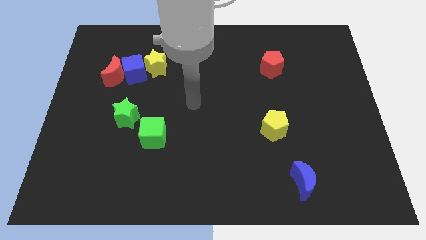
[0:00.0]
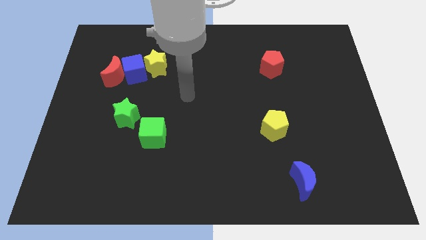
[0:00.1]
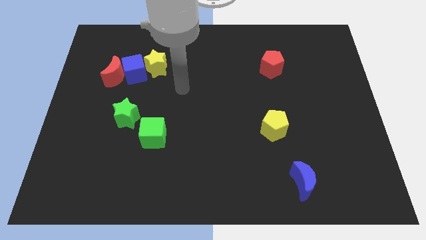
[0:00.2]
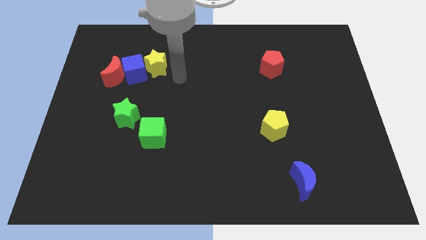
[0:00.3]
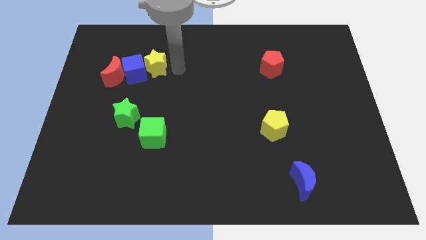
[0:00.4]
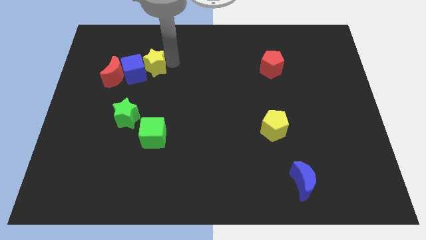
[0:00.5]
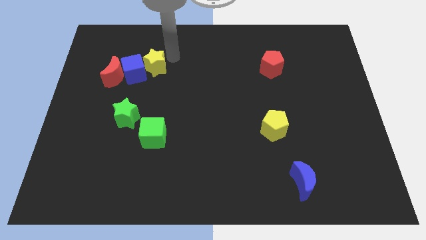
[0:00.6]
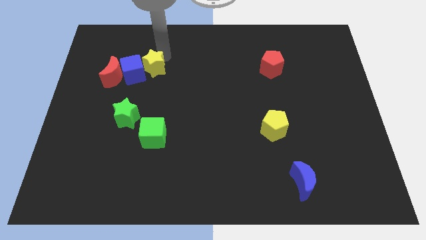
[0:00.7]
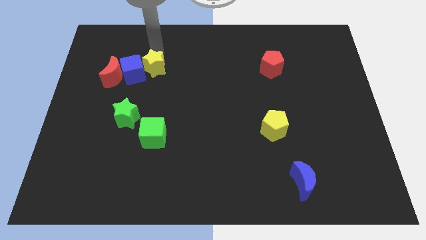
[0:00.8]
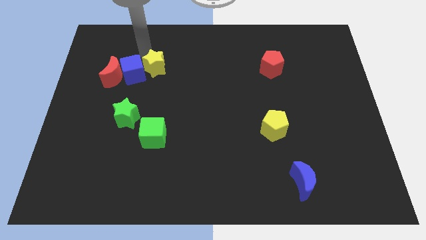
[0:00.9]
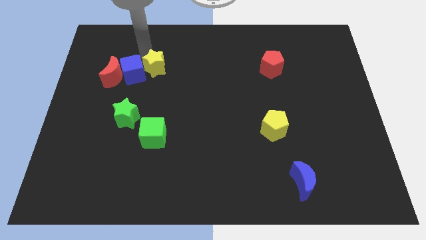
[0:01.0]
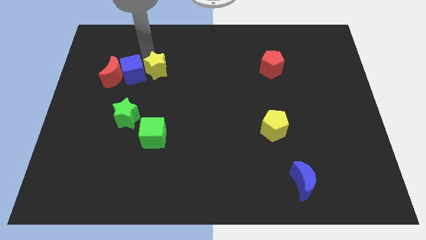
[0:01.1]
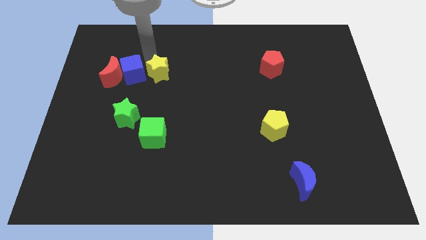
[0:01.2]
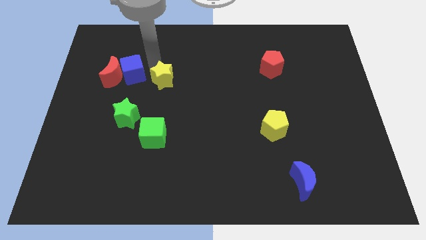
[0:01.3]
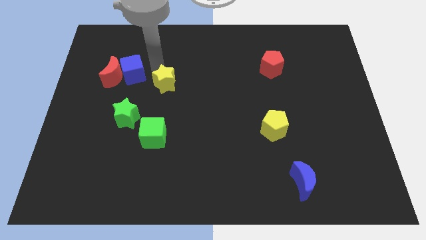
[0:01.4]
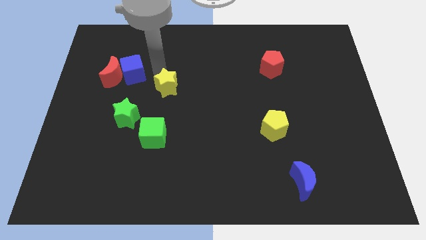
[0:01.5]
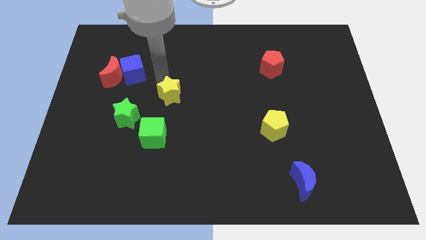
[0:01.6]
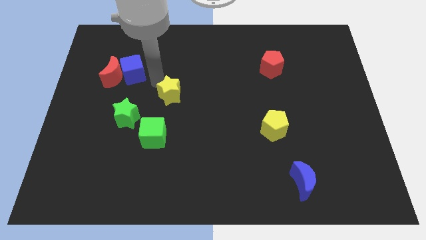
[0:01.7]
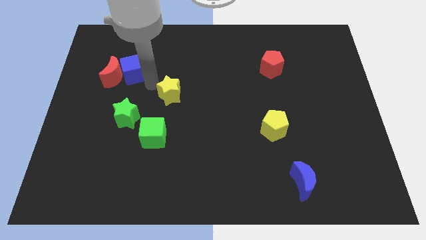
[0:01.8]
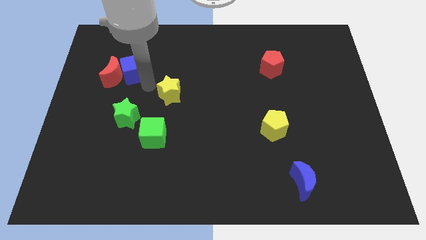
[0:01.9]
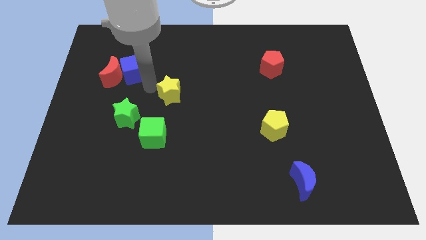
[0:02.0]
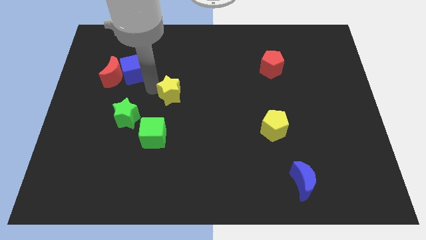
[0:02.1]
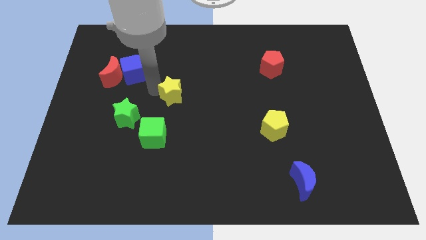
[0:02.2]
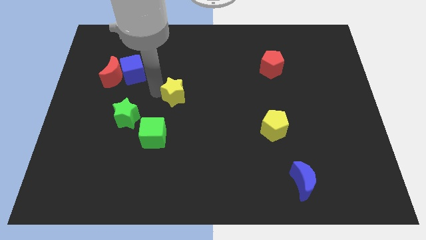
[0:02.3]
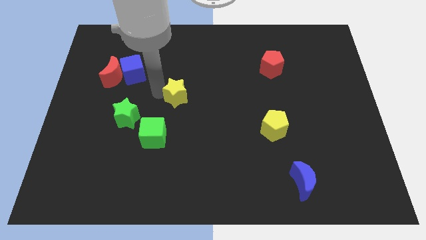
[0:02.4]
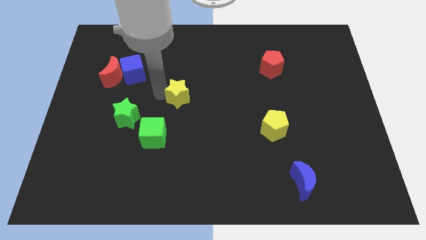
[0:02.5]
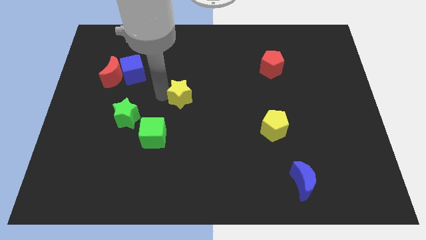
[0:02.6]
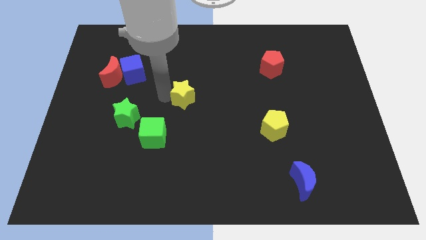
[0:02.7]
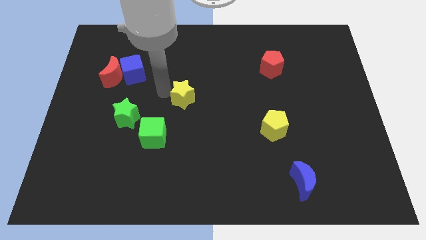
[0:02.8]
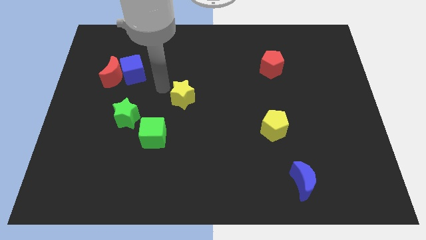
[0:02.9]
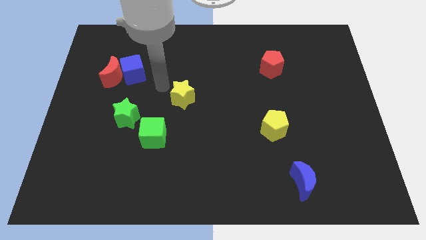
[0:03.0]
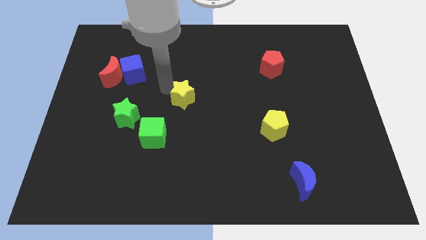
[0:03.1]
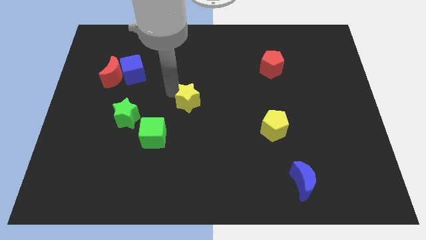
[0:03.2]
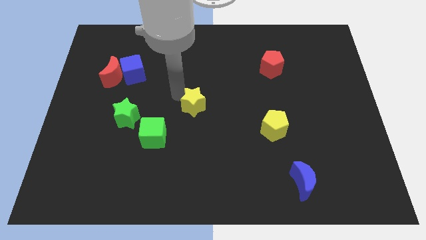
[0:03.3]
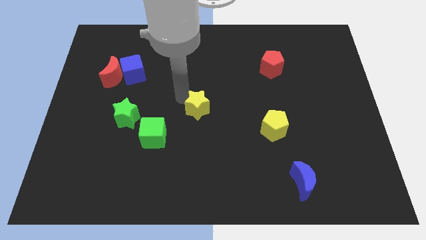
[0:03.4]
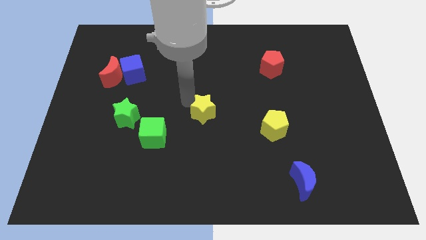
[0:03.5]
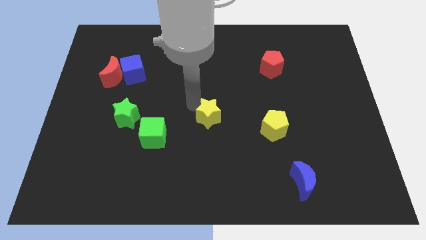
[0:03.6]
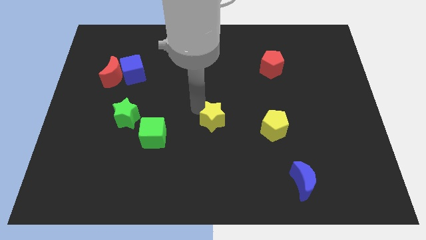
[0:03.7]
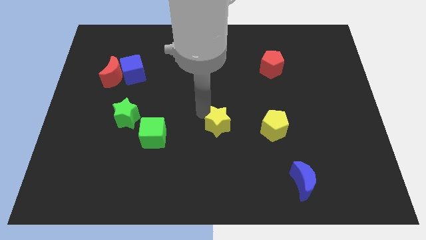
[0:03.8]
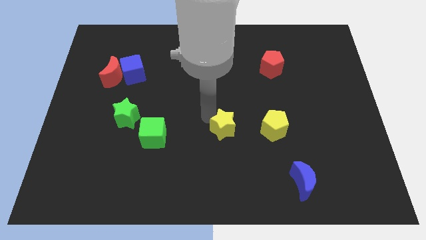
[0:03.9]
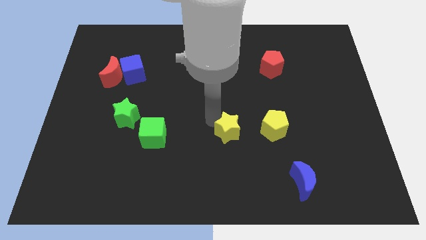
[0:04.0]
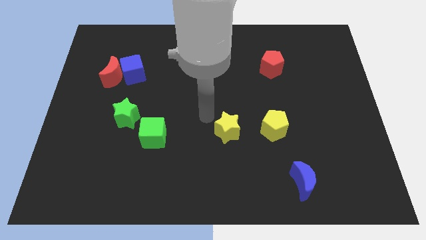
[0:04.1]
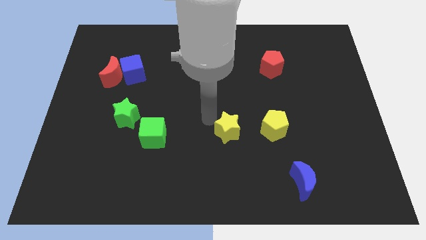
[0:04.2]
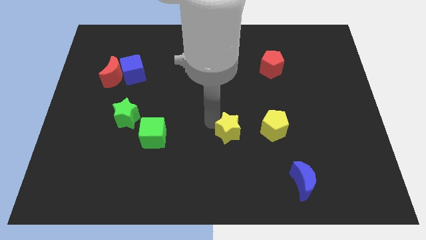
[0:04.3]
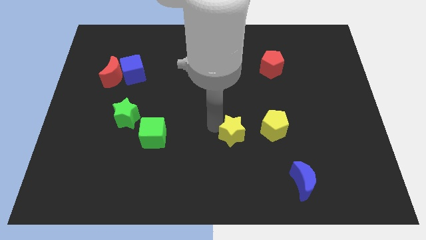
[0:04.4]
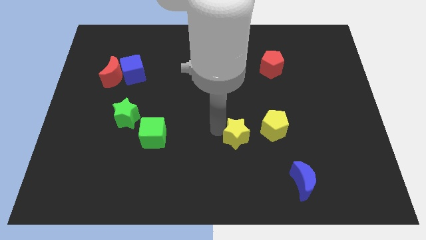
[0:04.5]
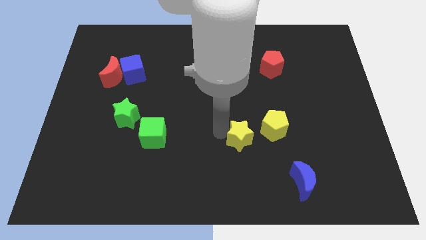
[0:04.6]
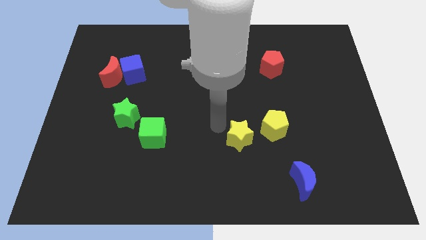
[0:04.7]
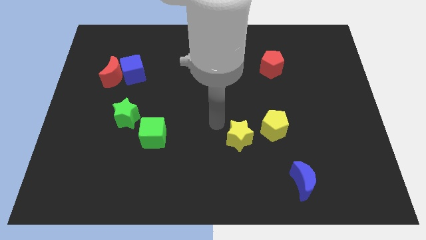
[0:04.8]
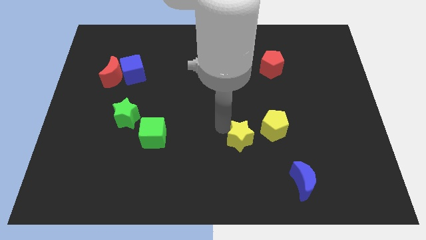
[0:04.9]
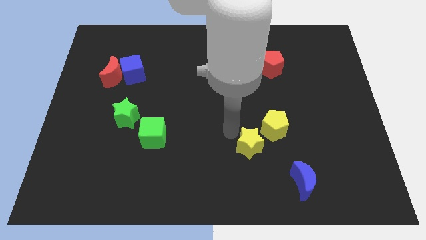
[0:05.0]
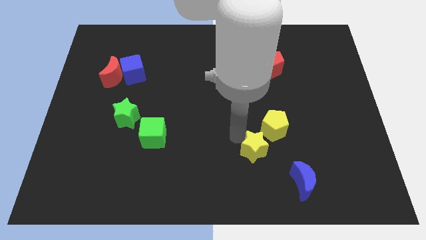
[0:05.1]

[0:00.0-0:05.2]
push the yellow star to the top left of the blue moon

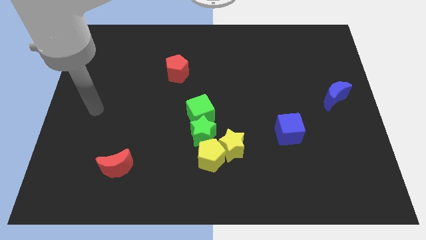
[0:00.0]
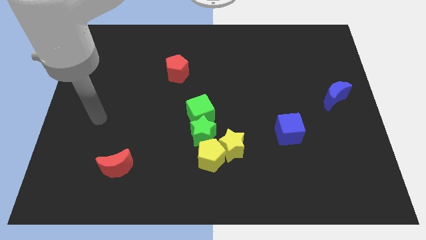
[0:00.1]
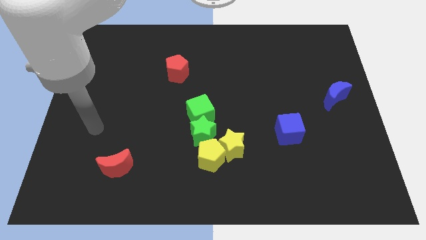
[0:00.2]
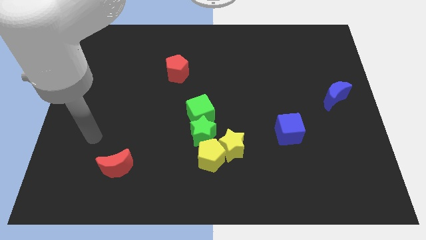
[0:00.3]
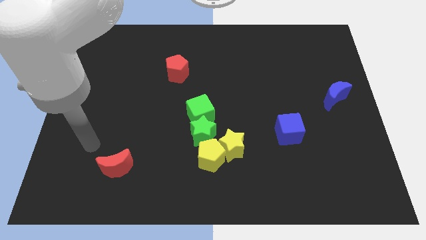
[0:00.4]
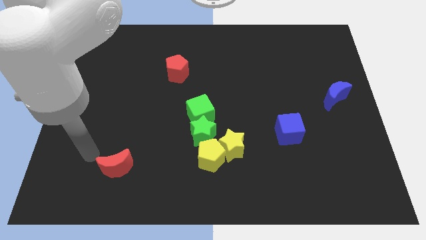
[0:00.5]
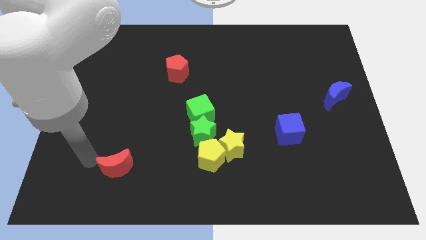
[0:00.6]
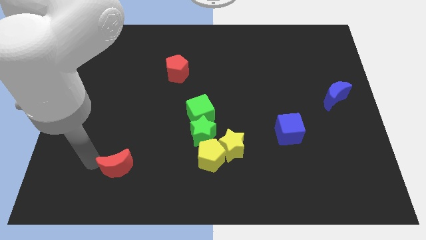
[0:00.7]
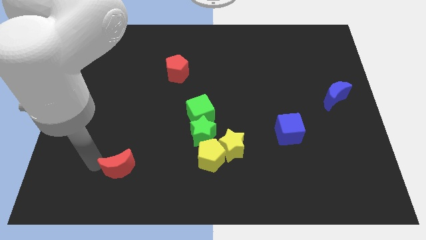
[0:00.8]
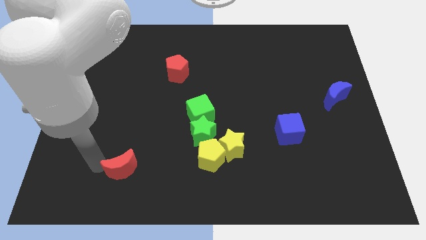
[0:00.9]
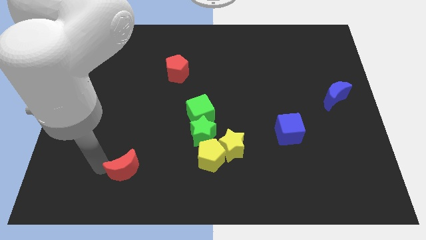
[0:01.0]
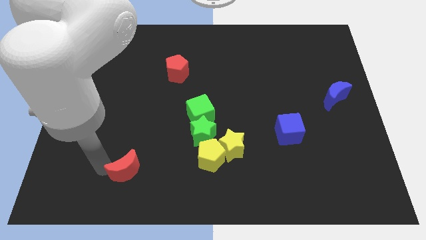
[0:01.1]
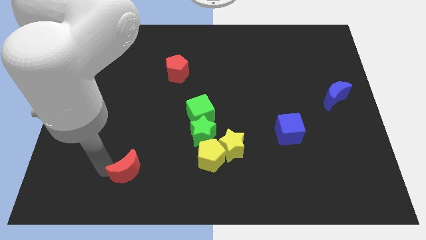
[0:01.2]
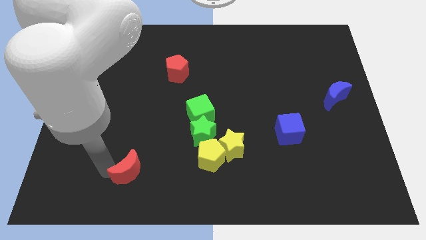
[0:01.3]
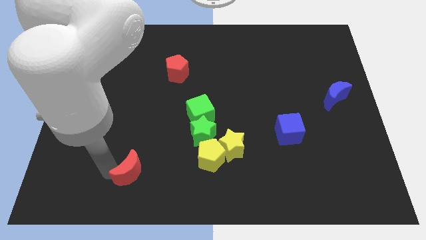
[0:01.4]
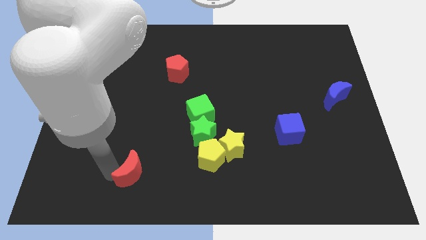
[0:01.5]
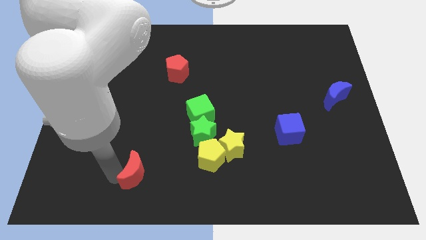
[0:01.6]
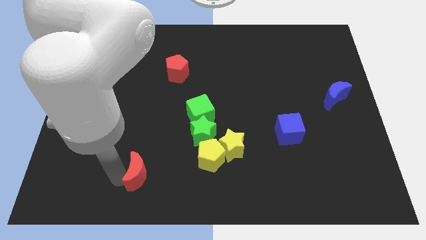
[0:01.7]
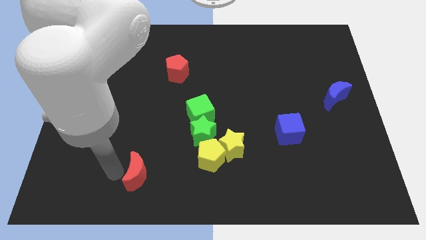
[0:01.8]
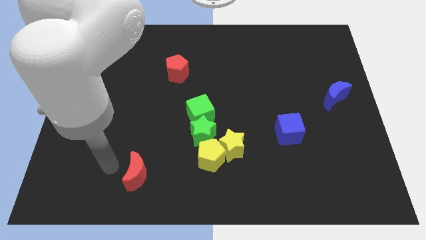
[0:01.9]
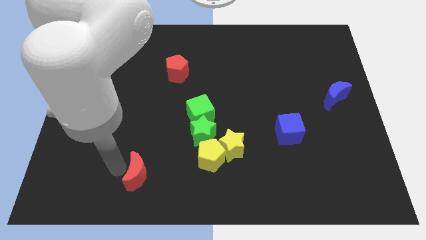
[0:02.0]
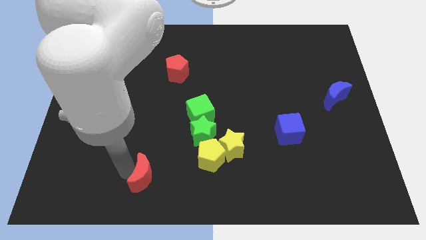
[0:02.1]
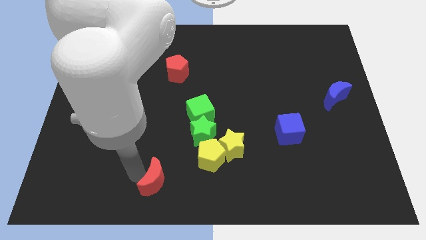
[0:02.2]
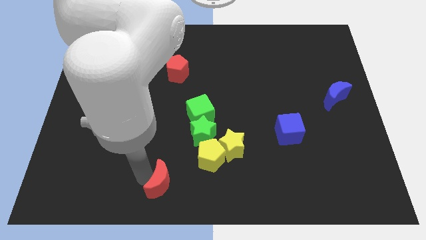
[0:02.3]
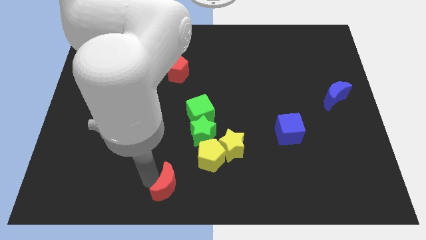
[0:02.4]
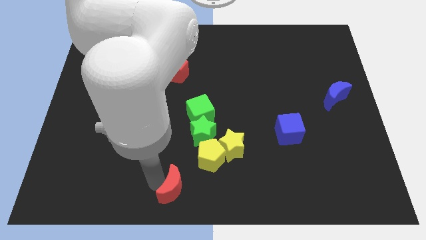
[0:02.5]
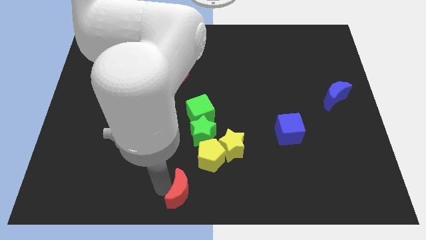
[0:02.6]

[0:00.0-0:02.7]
put the red moon to the bottom of the green star
